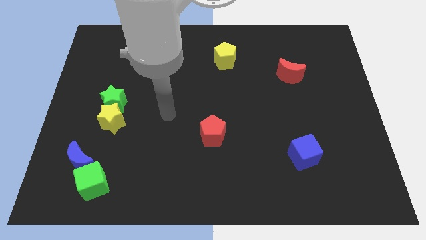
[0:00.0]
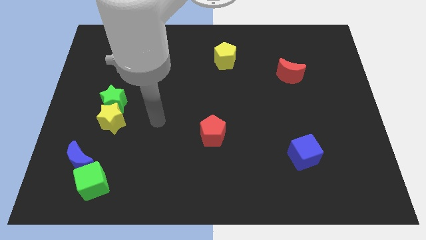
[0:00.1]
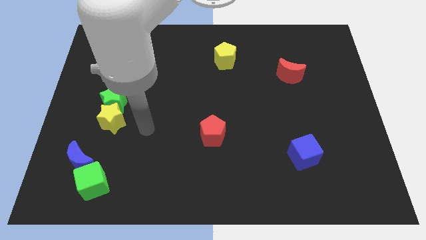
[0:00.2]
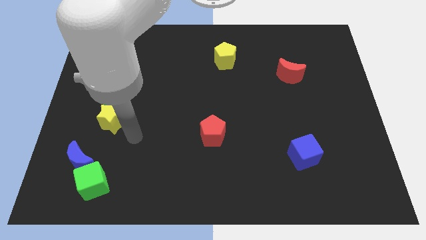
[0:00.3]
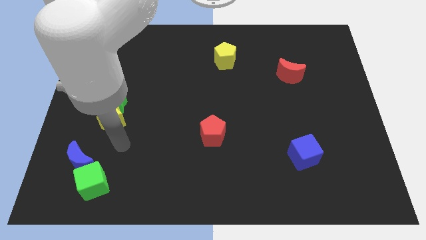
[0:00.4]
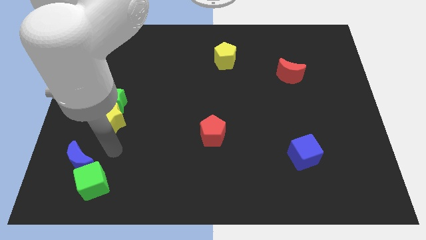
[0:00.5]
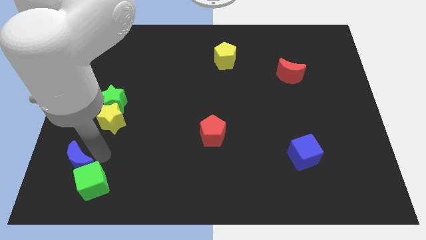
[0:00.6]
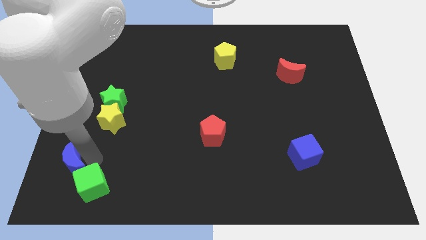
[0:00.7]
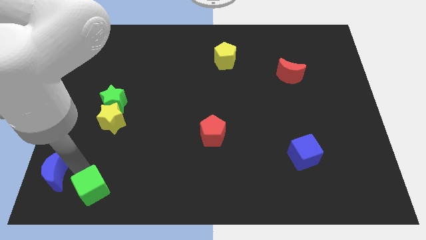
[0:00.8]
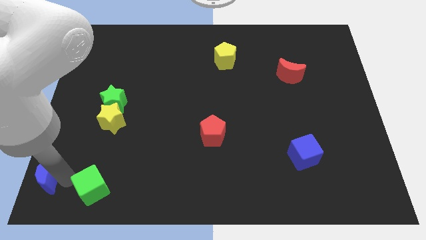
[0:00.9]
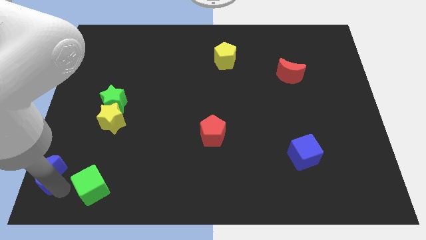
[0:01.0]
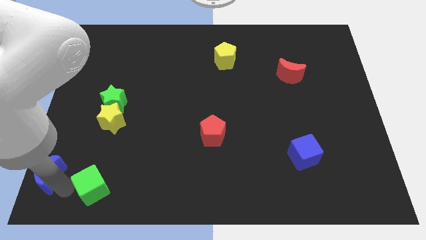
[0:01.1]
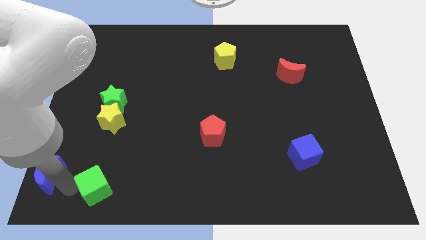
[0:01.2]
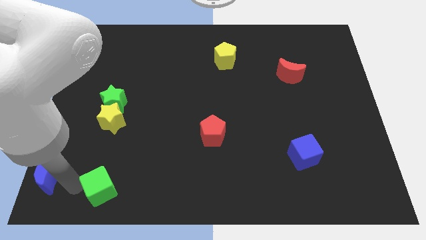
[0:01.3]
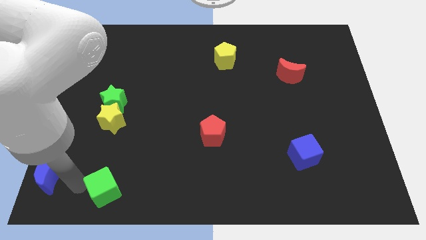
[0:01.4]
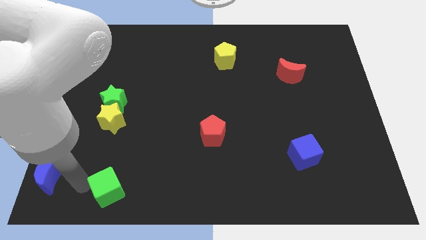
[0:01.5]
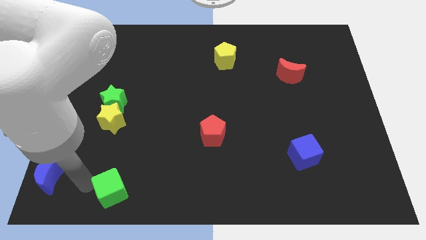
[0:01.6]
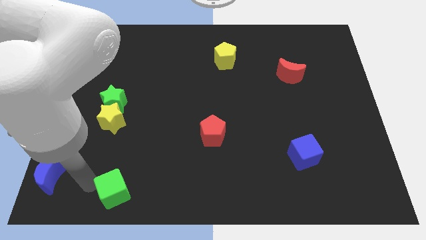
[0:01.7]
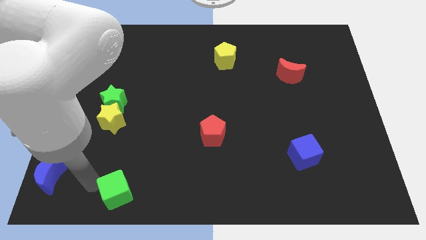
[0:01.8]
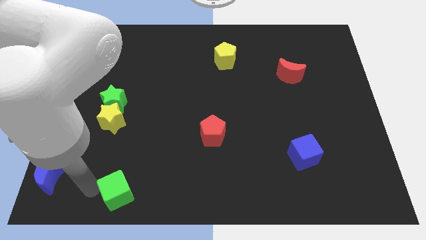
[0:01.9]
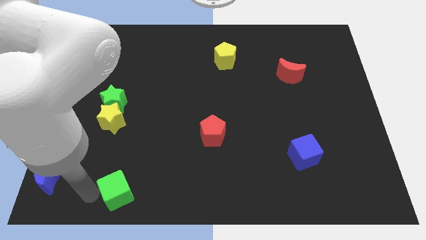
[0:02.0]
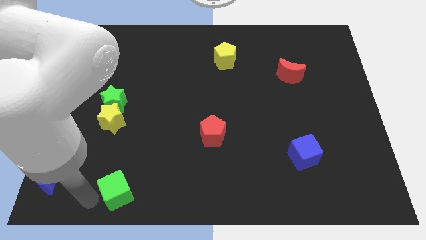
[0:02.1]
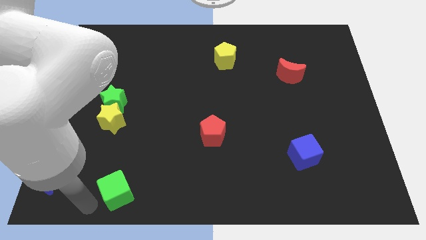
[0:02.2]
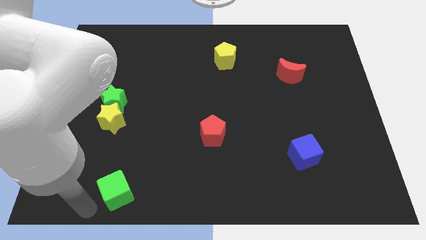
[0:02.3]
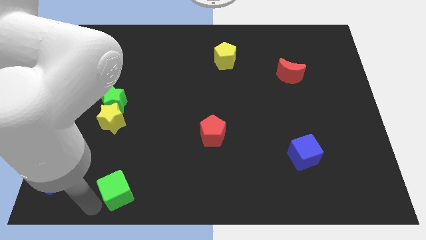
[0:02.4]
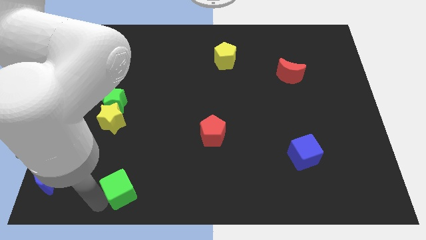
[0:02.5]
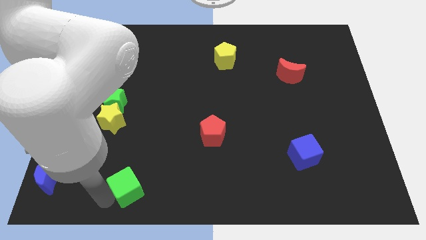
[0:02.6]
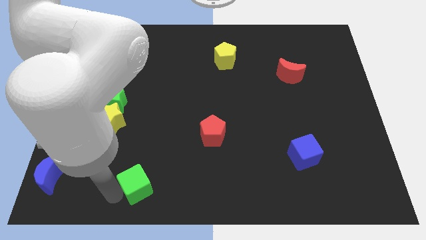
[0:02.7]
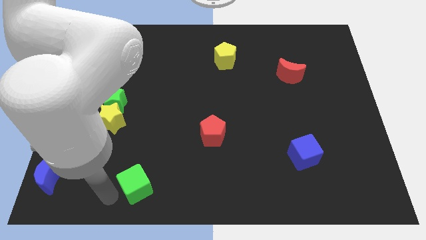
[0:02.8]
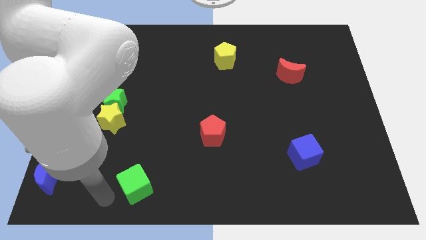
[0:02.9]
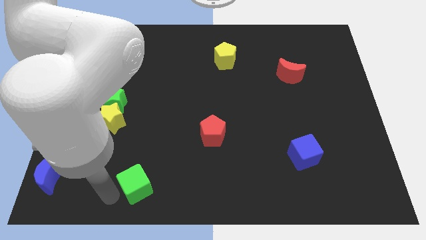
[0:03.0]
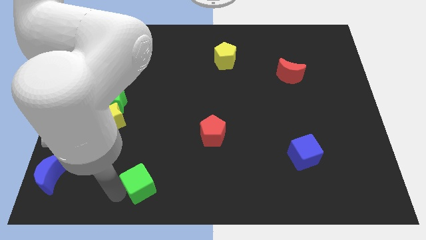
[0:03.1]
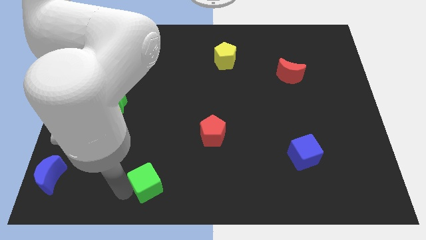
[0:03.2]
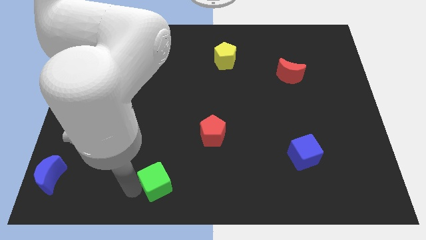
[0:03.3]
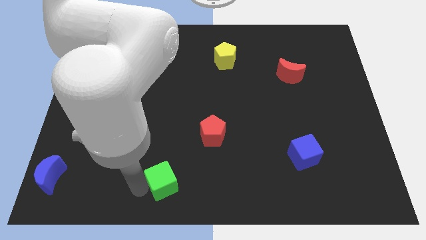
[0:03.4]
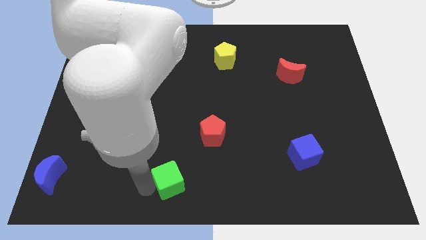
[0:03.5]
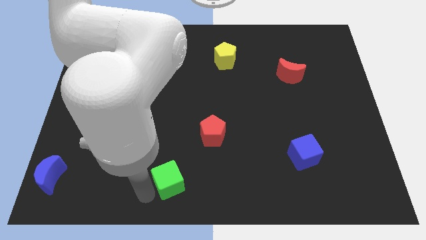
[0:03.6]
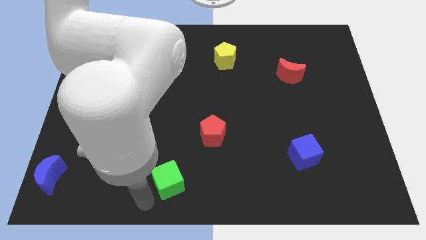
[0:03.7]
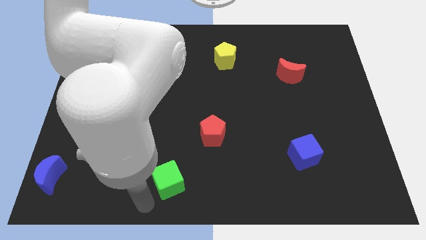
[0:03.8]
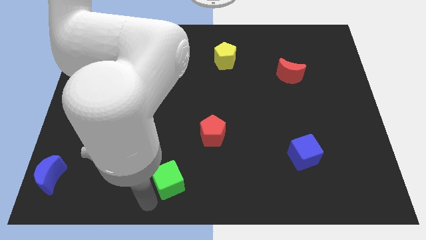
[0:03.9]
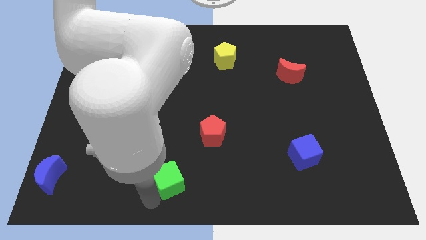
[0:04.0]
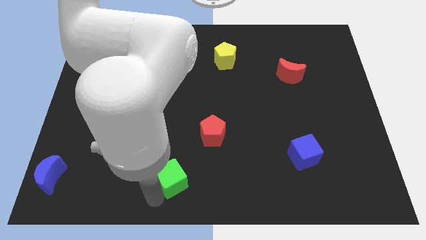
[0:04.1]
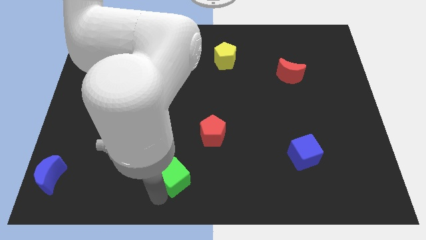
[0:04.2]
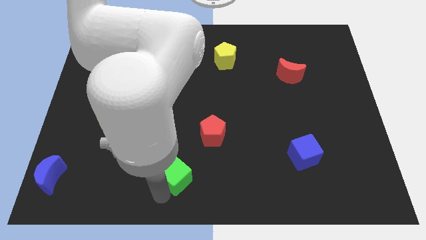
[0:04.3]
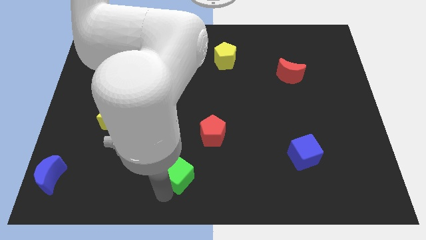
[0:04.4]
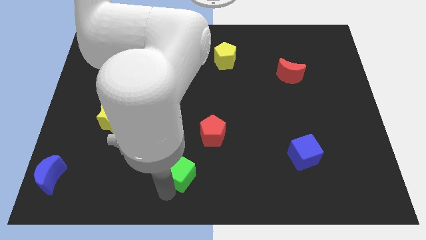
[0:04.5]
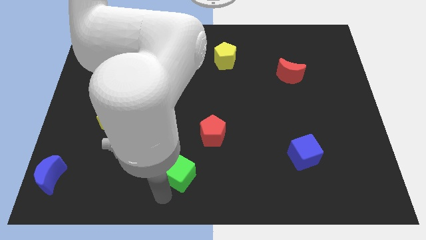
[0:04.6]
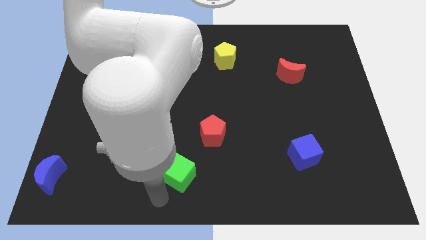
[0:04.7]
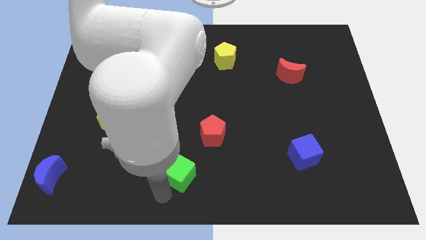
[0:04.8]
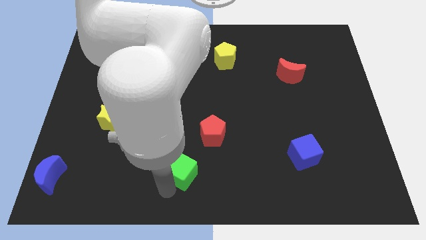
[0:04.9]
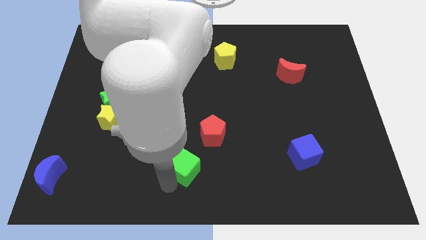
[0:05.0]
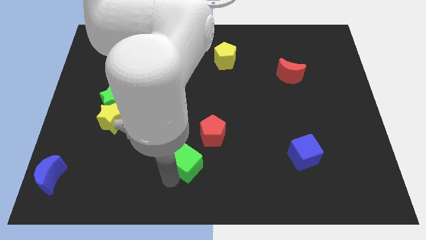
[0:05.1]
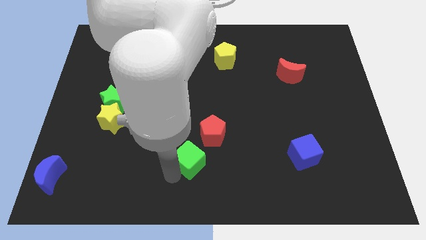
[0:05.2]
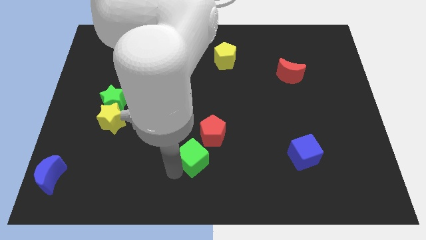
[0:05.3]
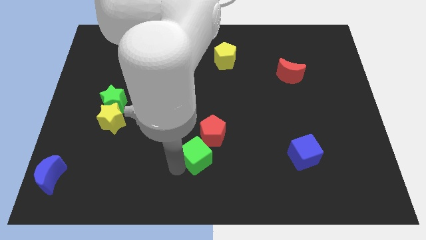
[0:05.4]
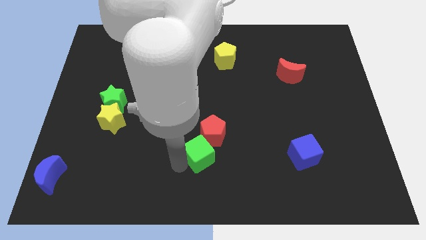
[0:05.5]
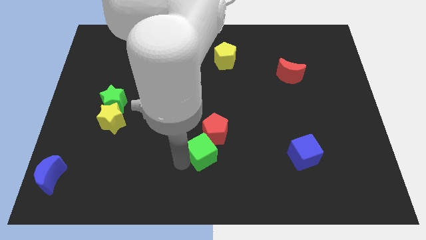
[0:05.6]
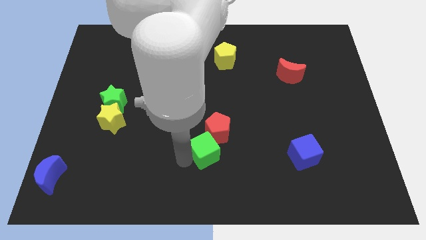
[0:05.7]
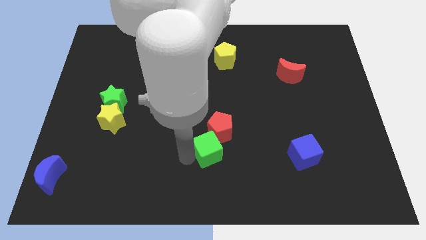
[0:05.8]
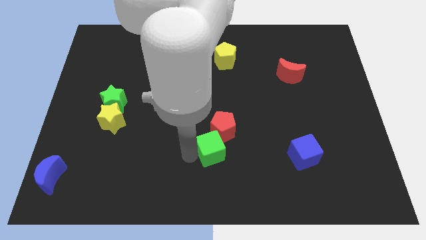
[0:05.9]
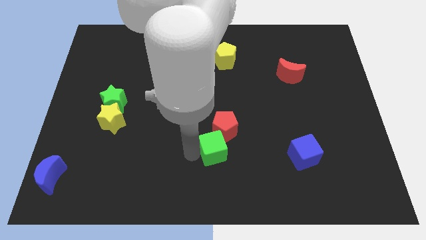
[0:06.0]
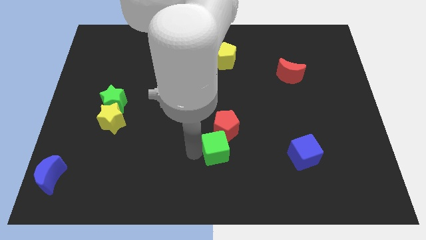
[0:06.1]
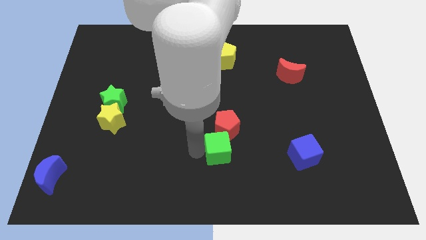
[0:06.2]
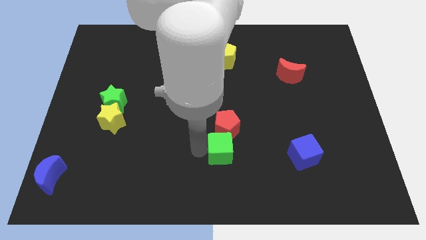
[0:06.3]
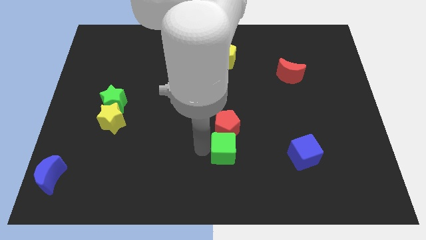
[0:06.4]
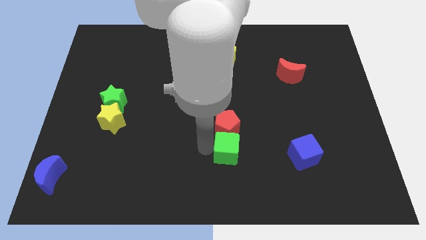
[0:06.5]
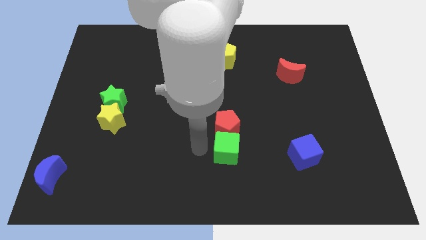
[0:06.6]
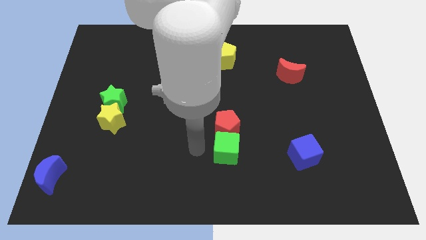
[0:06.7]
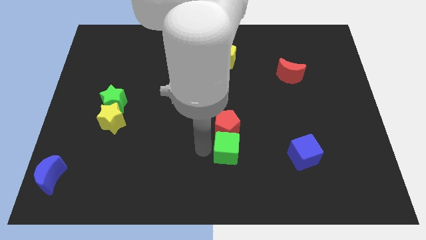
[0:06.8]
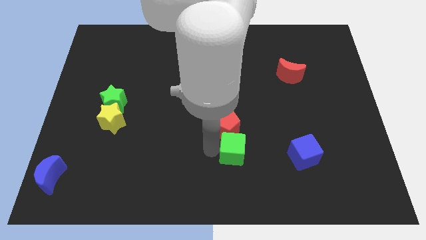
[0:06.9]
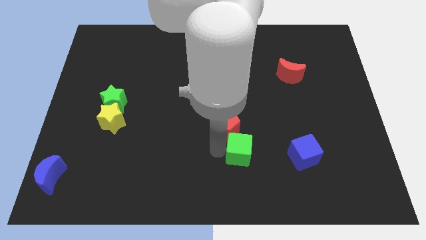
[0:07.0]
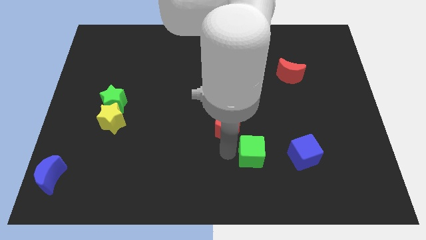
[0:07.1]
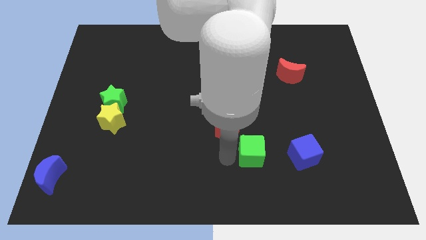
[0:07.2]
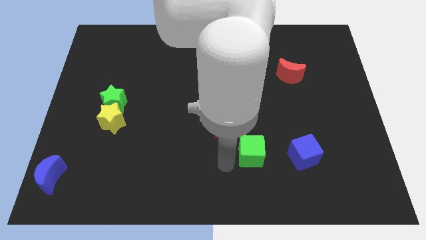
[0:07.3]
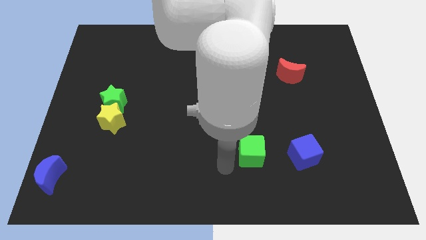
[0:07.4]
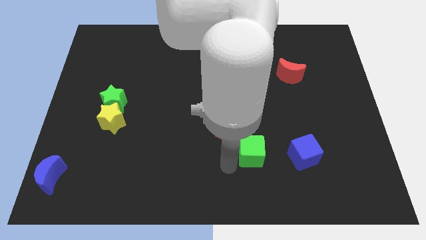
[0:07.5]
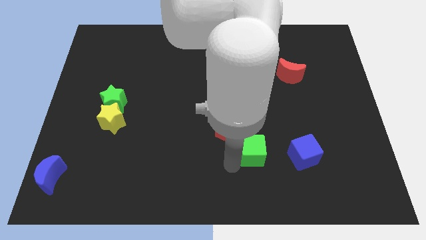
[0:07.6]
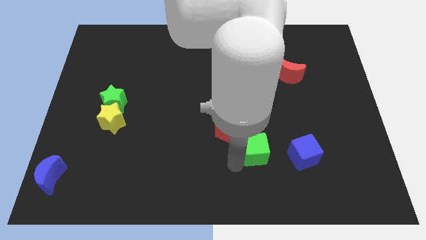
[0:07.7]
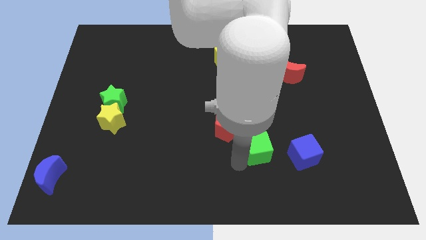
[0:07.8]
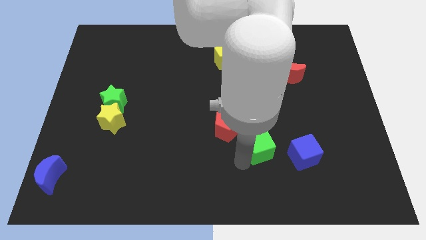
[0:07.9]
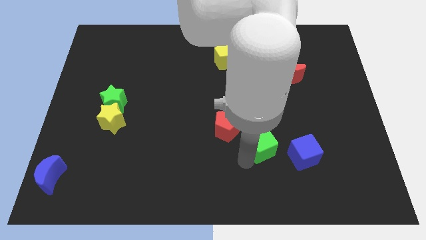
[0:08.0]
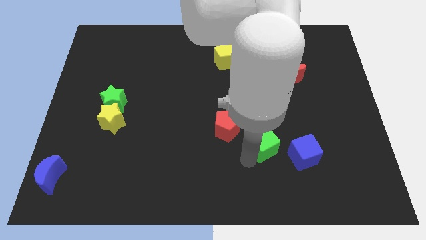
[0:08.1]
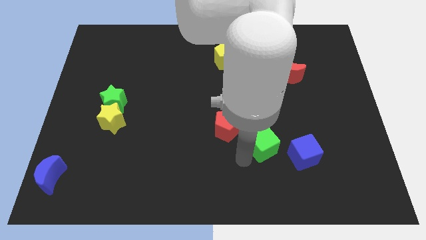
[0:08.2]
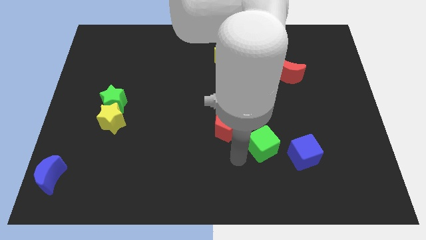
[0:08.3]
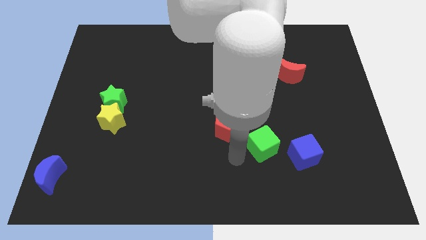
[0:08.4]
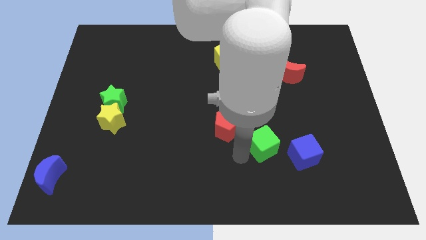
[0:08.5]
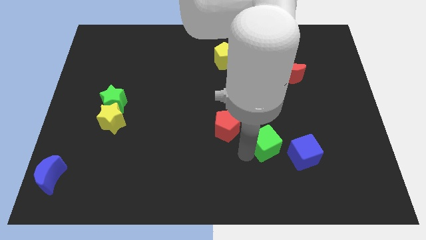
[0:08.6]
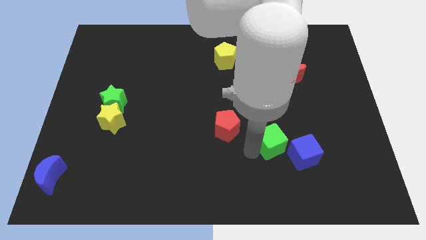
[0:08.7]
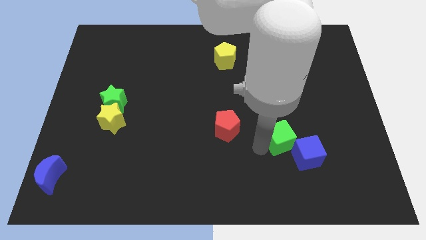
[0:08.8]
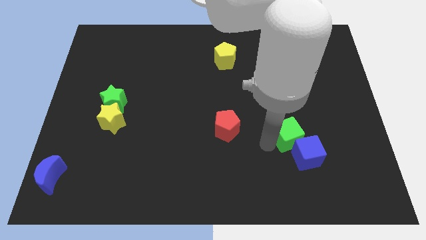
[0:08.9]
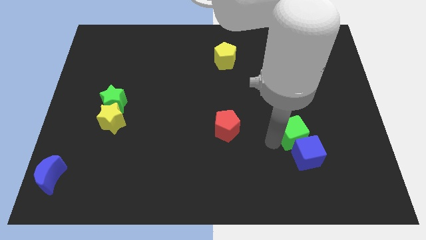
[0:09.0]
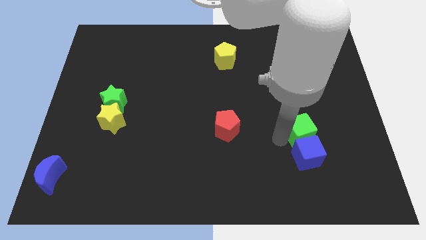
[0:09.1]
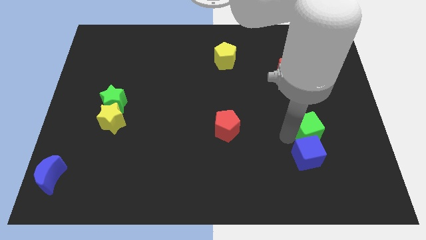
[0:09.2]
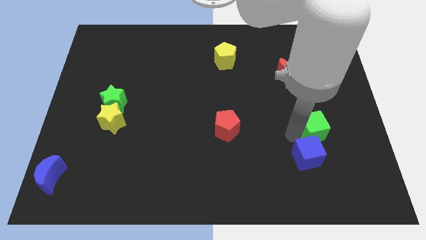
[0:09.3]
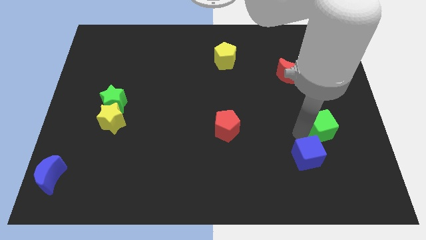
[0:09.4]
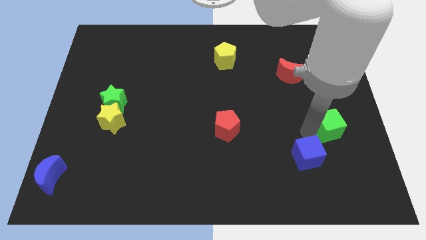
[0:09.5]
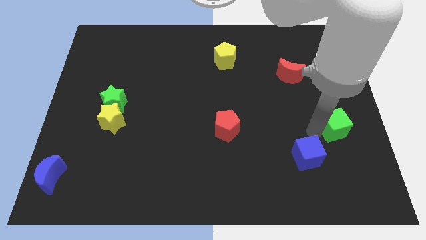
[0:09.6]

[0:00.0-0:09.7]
slide the green cube to the center right
